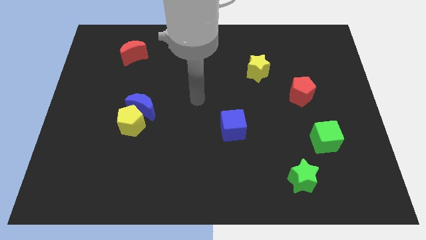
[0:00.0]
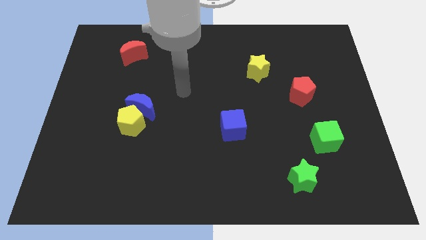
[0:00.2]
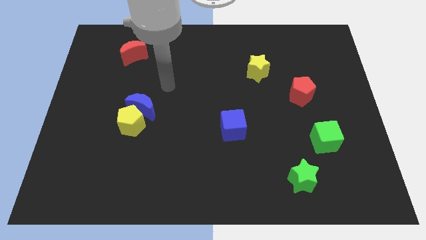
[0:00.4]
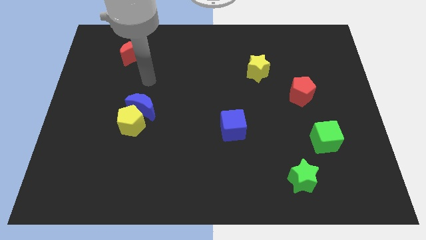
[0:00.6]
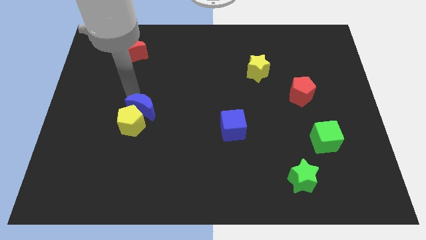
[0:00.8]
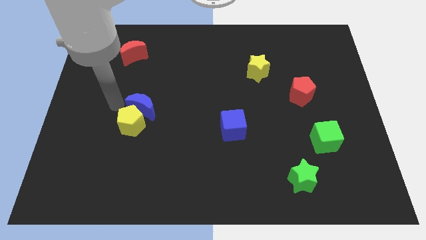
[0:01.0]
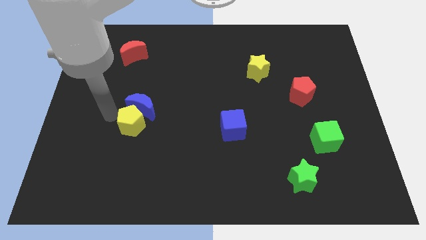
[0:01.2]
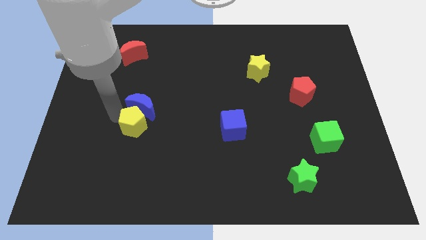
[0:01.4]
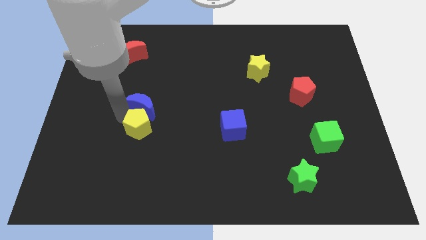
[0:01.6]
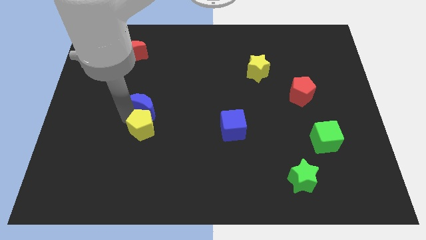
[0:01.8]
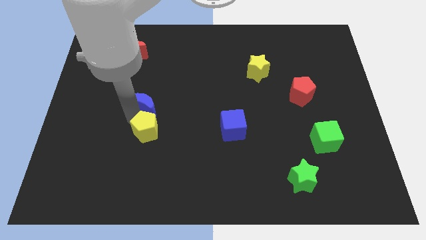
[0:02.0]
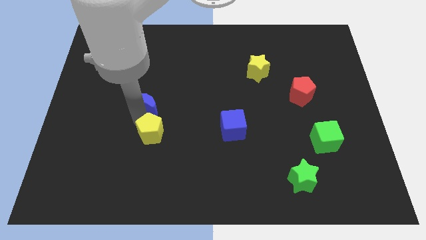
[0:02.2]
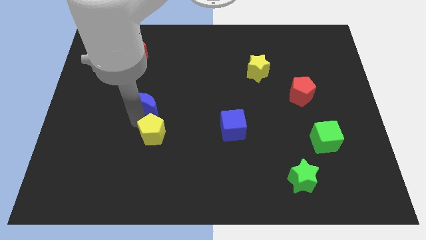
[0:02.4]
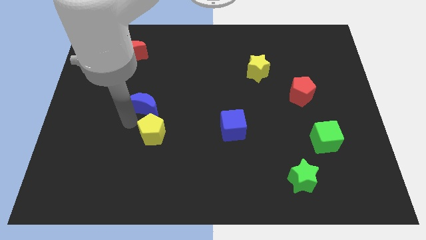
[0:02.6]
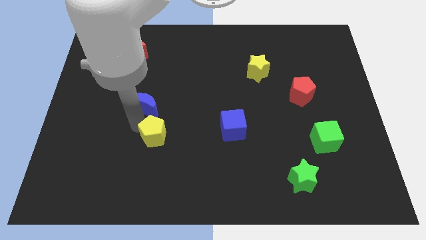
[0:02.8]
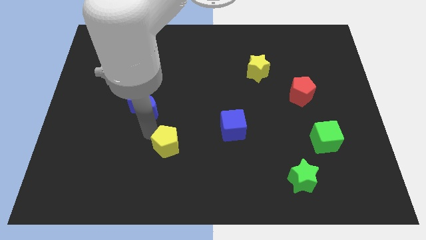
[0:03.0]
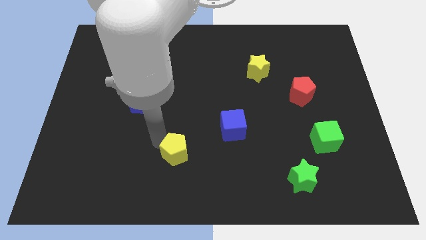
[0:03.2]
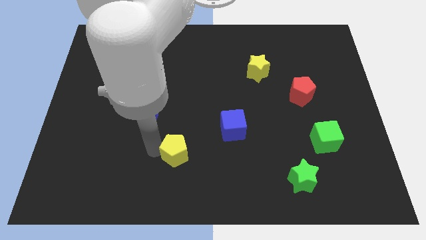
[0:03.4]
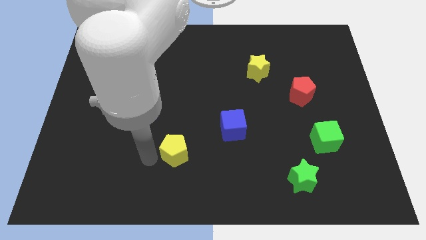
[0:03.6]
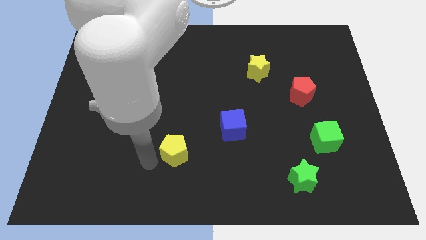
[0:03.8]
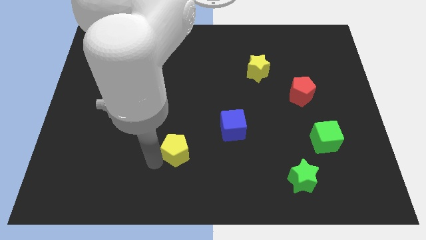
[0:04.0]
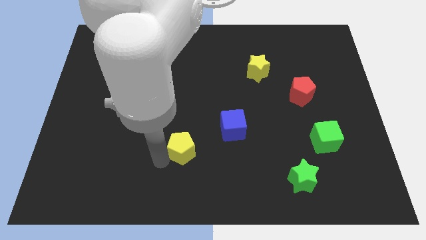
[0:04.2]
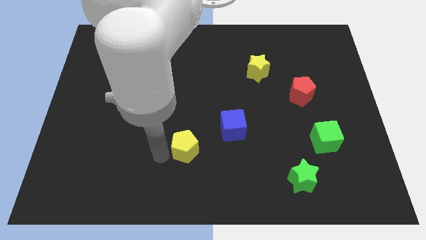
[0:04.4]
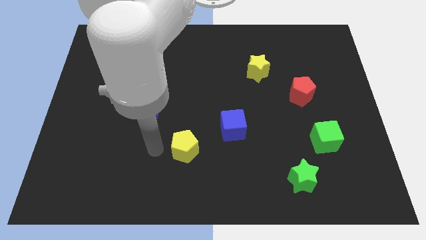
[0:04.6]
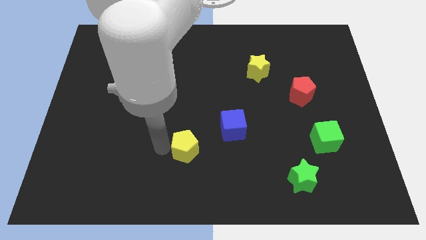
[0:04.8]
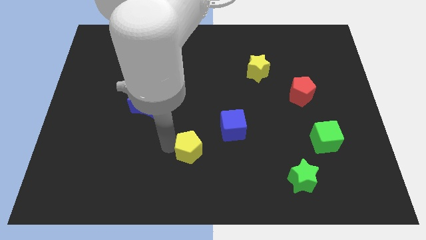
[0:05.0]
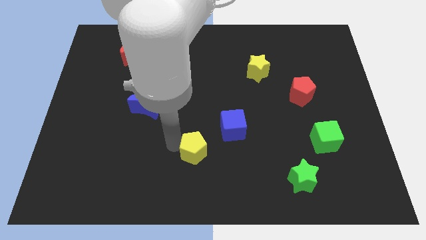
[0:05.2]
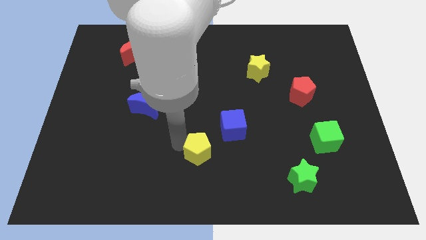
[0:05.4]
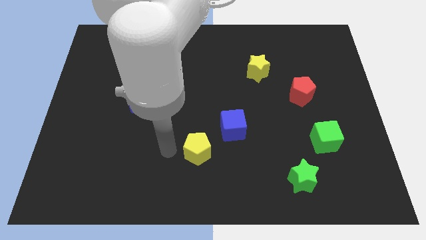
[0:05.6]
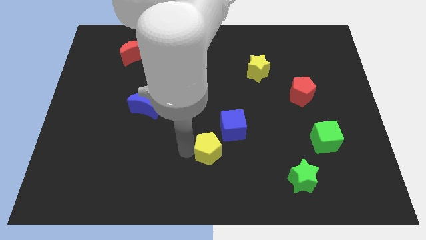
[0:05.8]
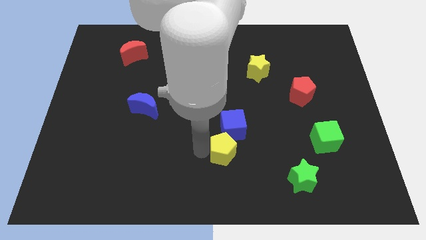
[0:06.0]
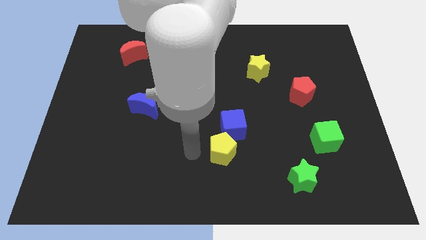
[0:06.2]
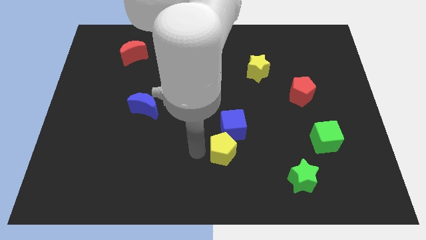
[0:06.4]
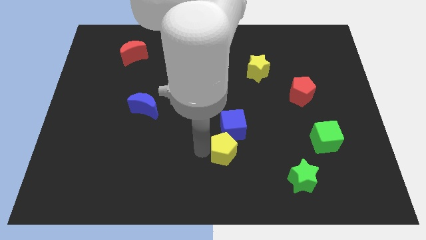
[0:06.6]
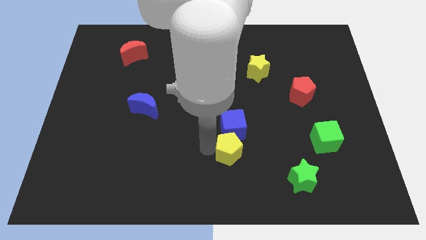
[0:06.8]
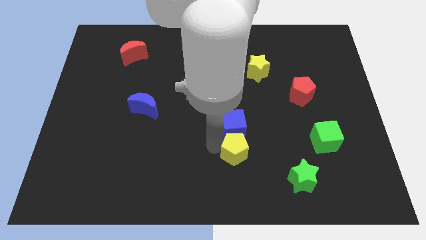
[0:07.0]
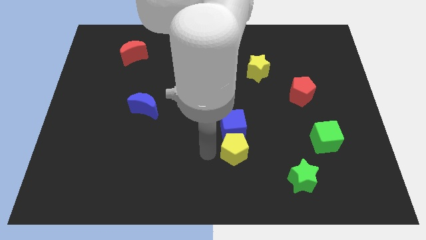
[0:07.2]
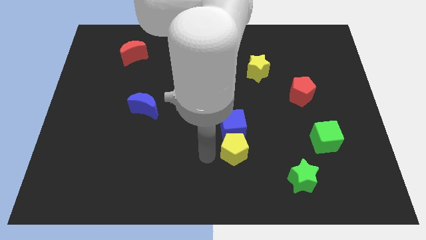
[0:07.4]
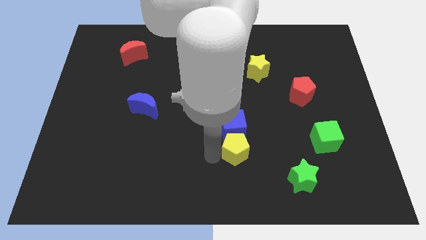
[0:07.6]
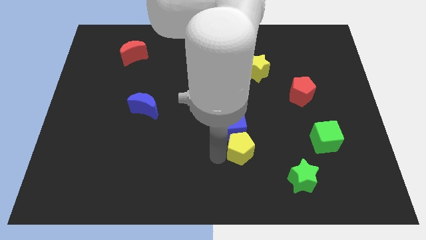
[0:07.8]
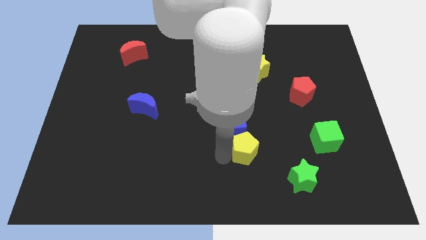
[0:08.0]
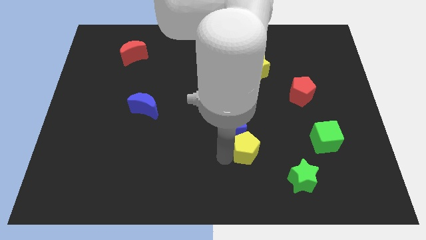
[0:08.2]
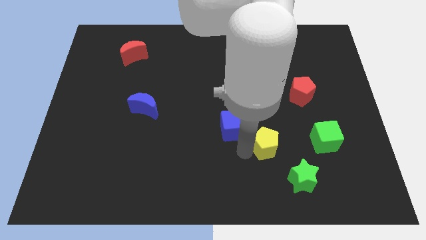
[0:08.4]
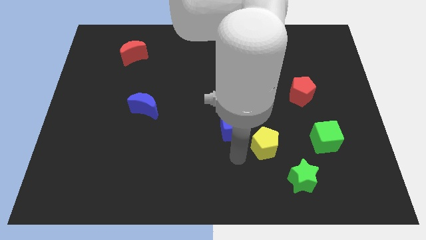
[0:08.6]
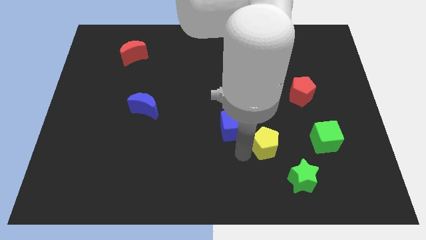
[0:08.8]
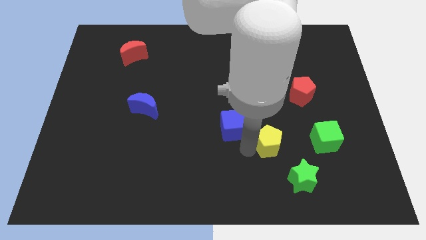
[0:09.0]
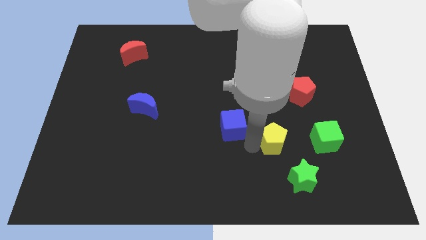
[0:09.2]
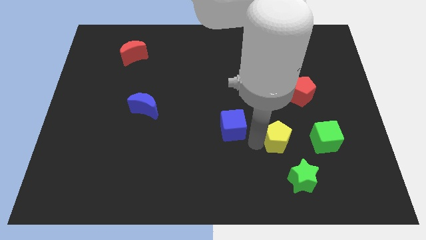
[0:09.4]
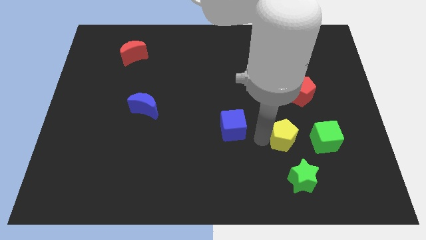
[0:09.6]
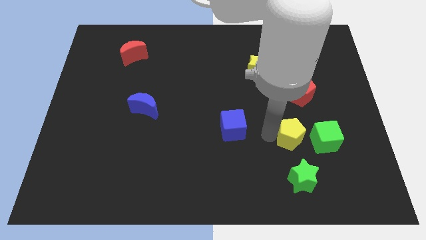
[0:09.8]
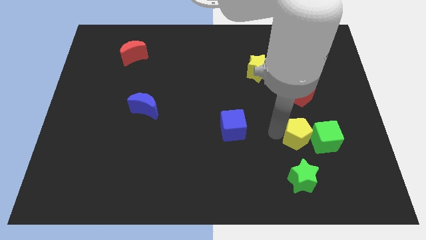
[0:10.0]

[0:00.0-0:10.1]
put the yellow pentagon towards the green cube

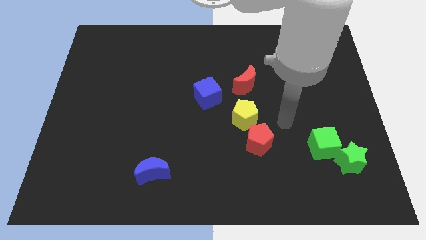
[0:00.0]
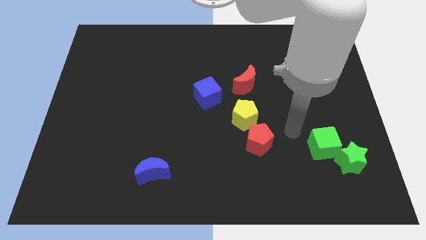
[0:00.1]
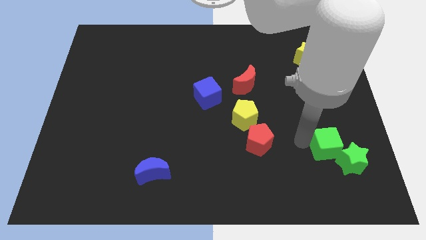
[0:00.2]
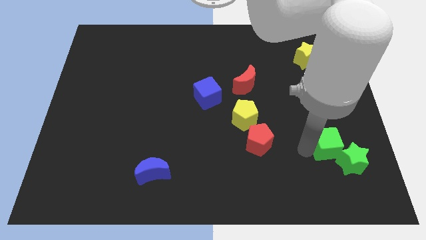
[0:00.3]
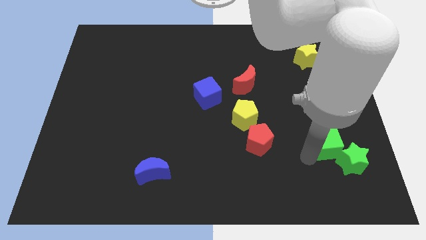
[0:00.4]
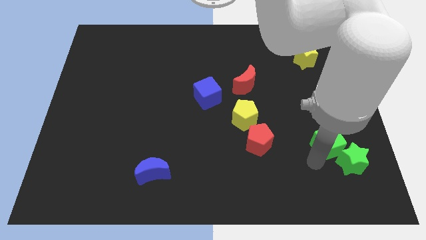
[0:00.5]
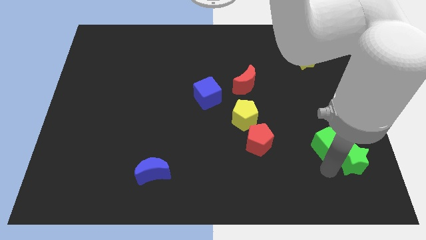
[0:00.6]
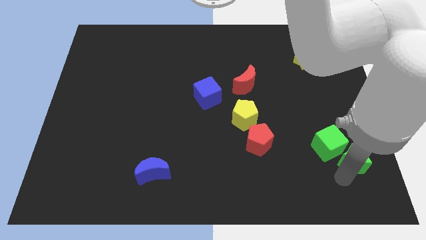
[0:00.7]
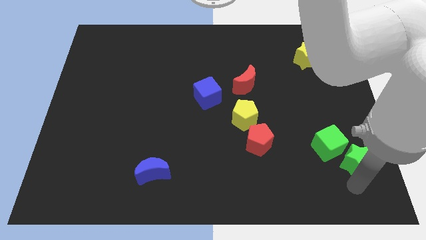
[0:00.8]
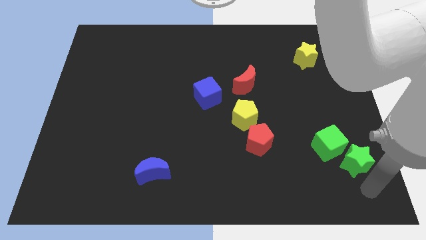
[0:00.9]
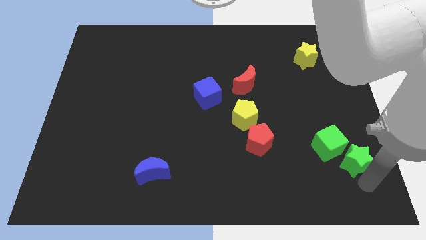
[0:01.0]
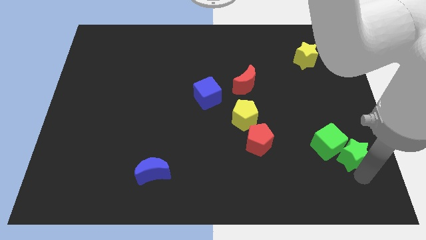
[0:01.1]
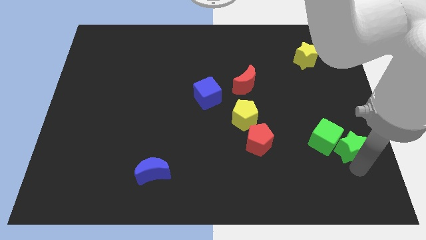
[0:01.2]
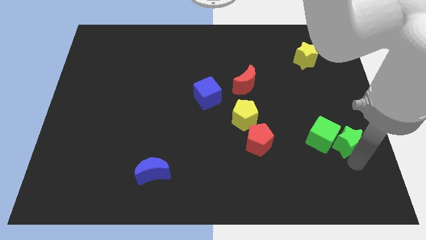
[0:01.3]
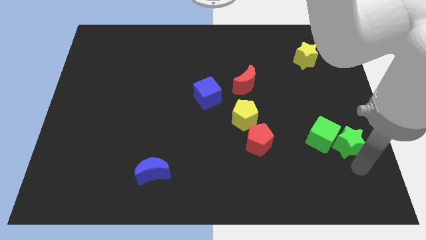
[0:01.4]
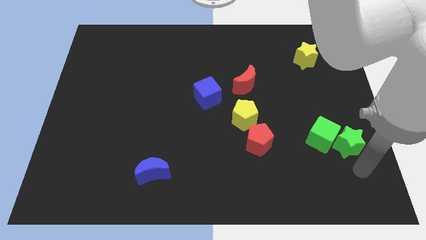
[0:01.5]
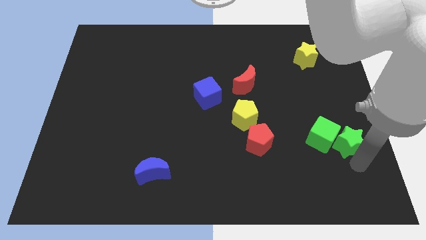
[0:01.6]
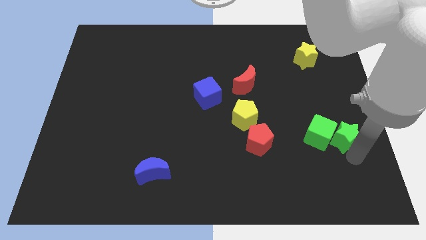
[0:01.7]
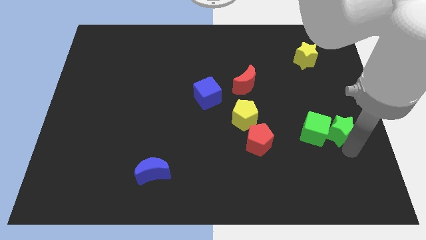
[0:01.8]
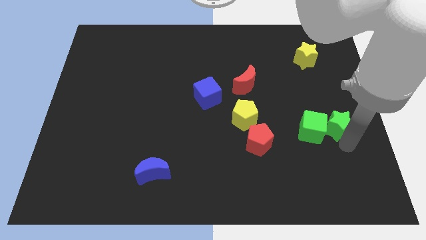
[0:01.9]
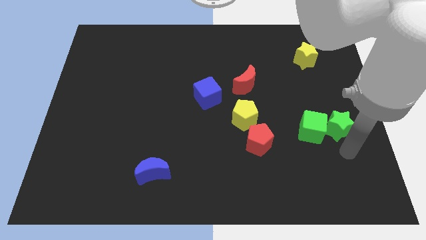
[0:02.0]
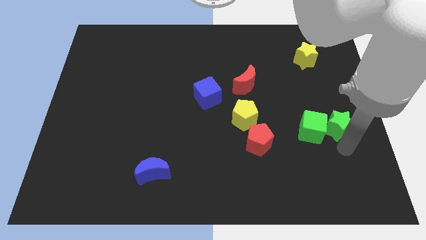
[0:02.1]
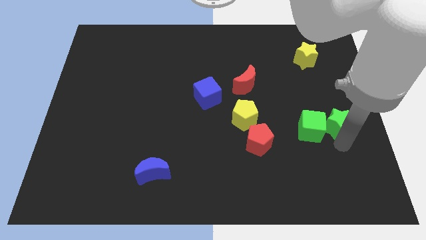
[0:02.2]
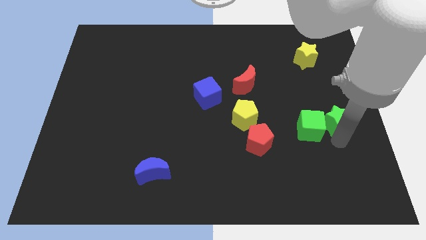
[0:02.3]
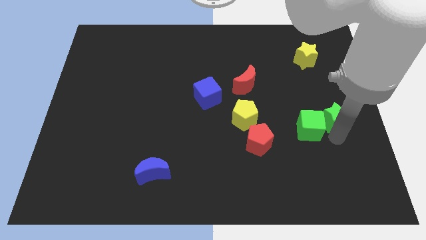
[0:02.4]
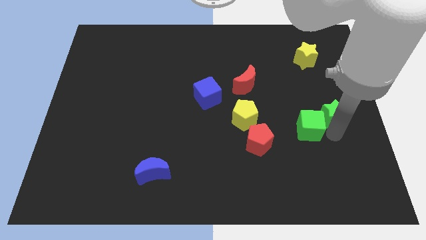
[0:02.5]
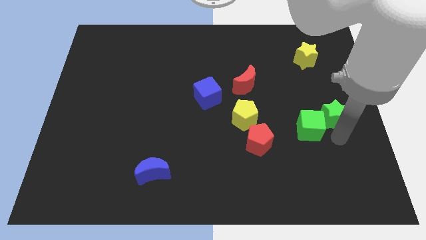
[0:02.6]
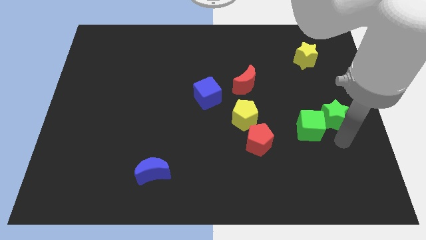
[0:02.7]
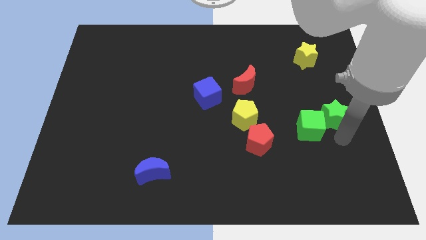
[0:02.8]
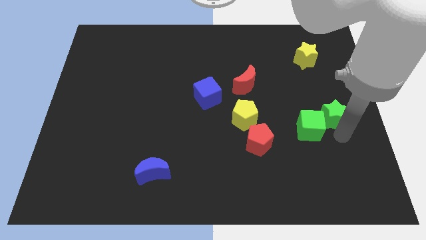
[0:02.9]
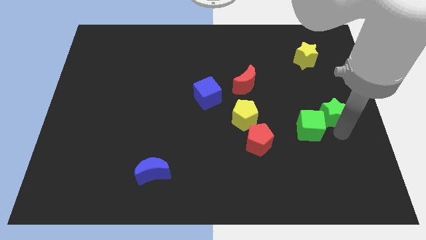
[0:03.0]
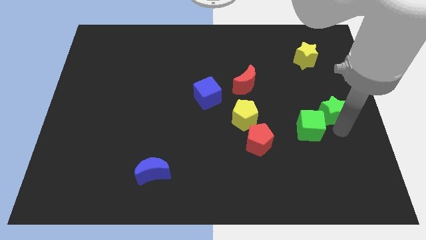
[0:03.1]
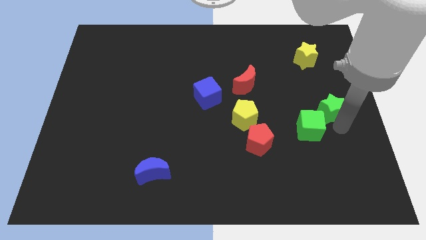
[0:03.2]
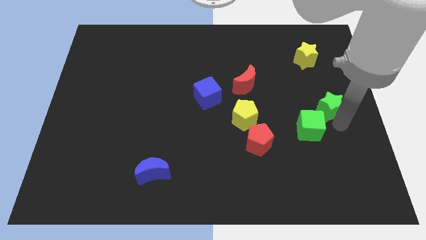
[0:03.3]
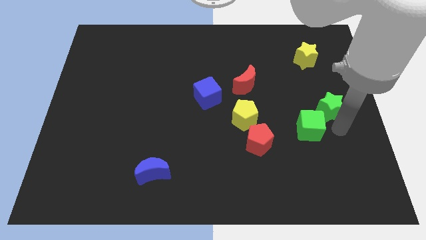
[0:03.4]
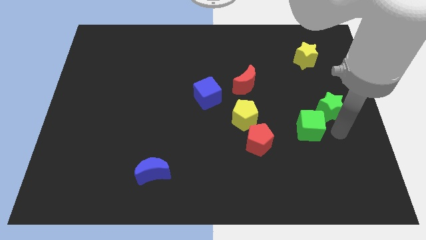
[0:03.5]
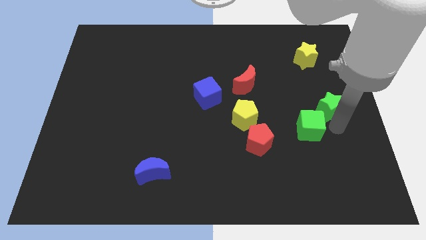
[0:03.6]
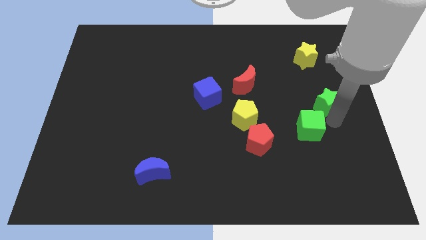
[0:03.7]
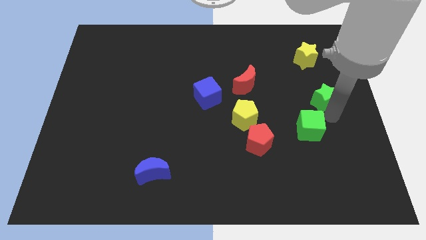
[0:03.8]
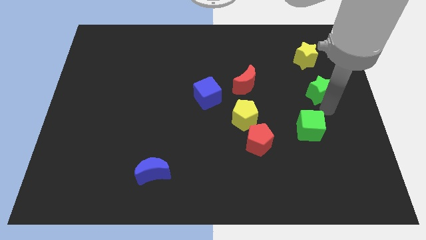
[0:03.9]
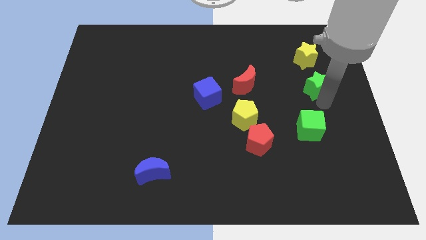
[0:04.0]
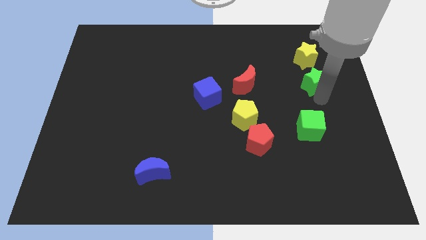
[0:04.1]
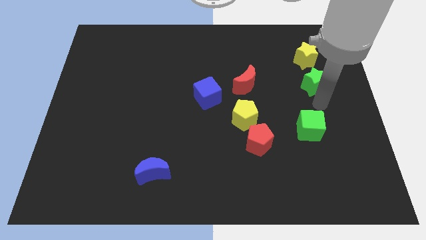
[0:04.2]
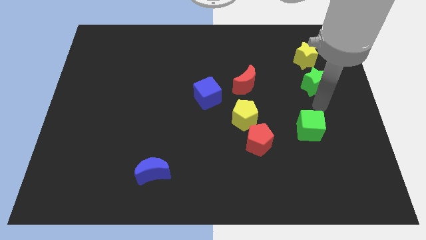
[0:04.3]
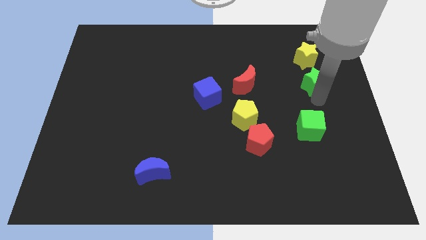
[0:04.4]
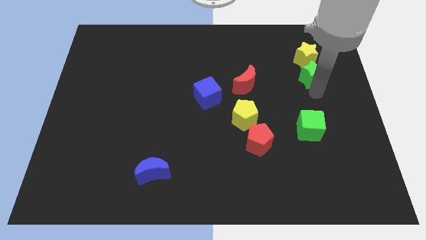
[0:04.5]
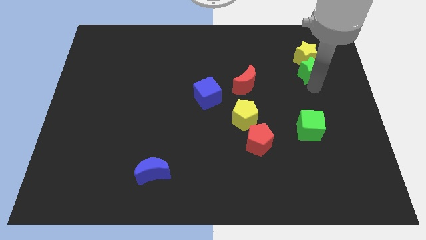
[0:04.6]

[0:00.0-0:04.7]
move the green star to the yellow star
